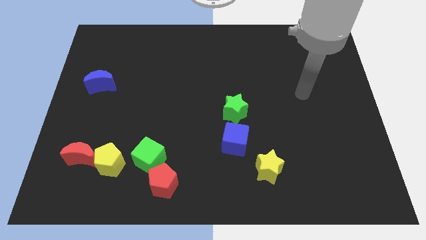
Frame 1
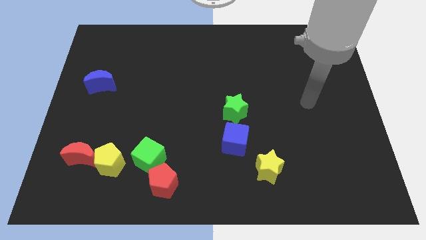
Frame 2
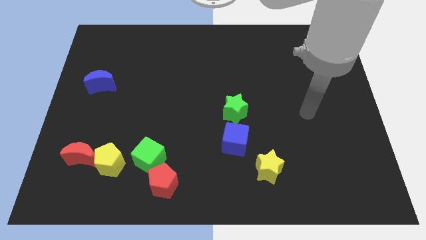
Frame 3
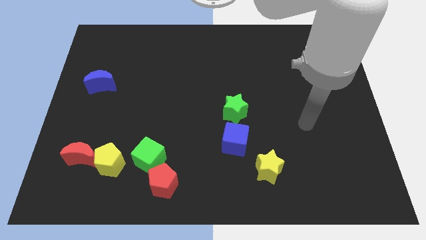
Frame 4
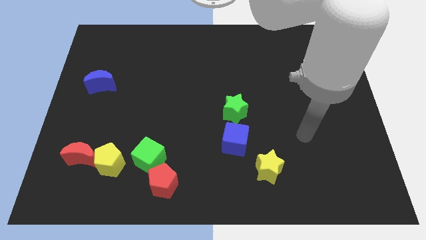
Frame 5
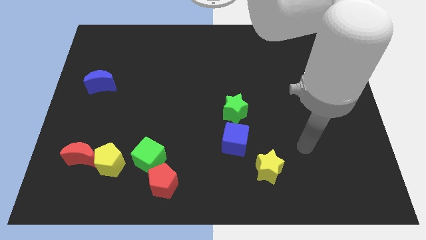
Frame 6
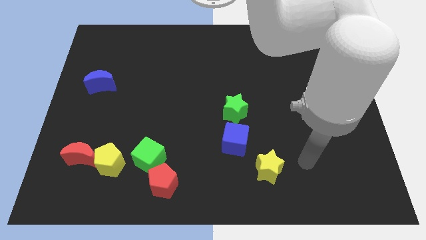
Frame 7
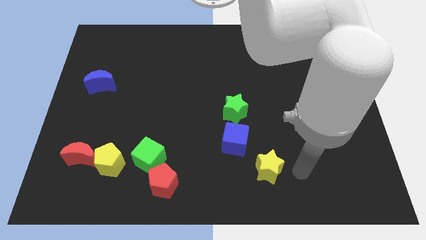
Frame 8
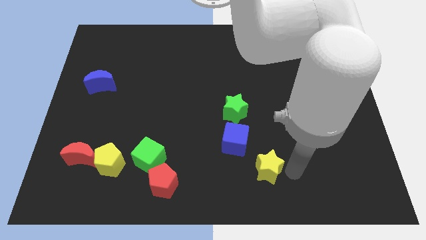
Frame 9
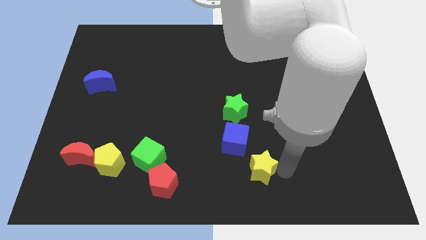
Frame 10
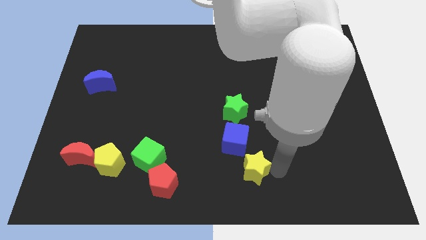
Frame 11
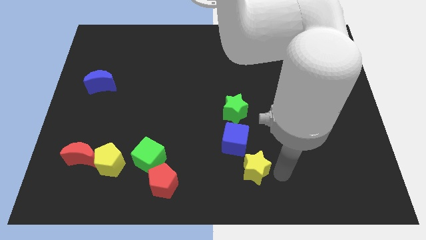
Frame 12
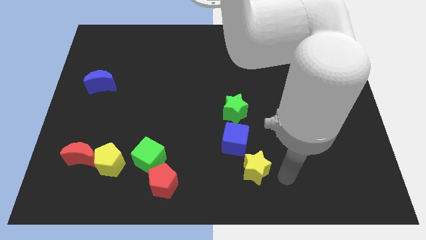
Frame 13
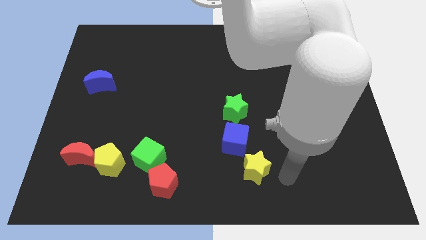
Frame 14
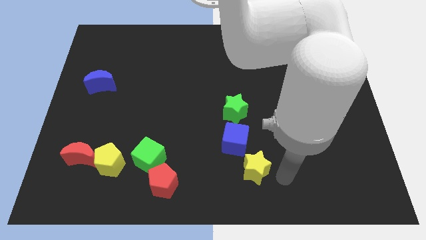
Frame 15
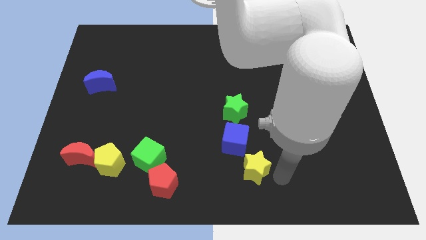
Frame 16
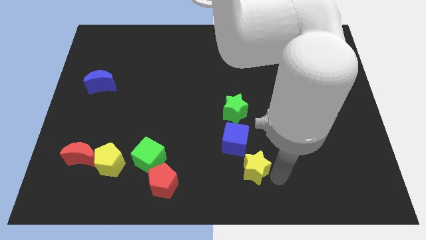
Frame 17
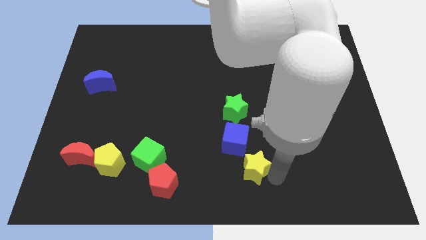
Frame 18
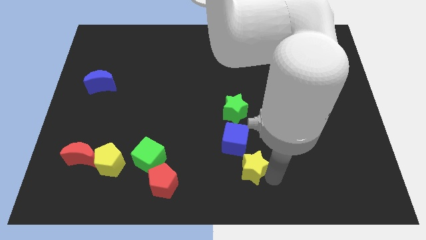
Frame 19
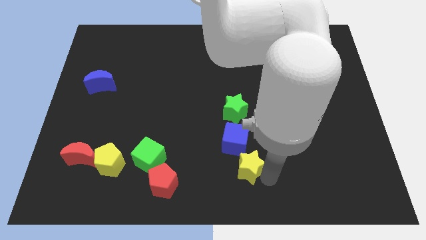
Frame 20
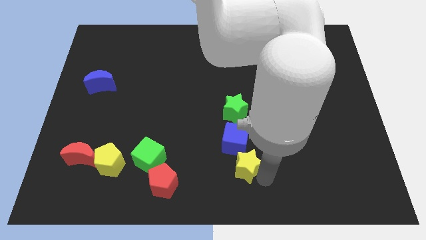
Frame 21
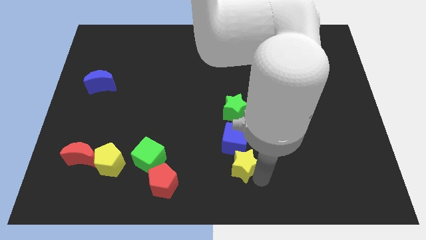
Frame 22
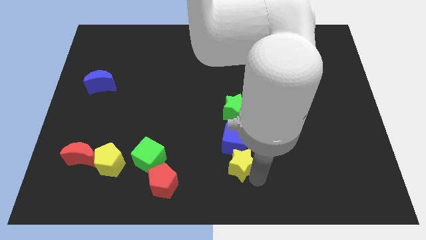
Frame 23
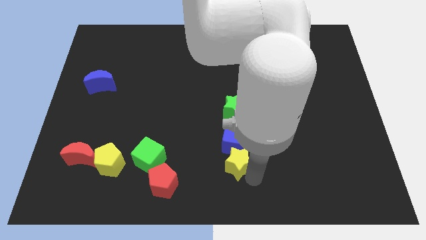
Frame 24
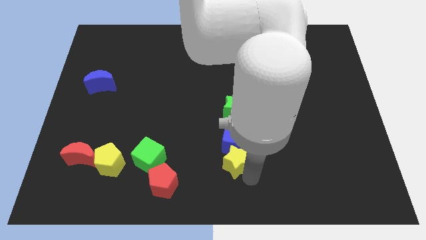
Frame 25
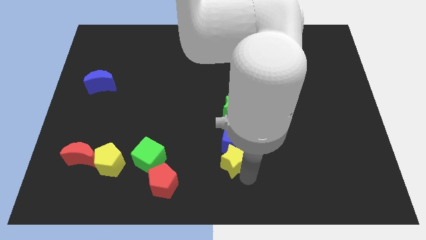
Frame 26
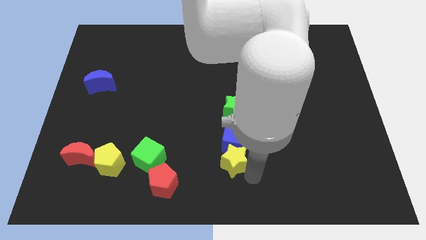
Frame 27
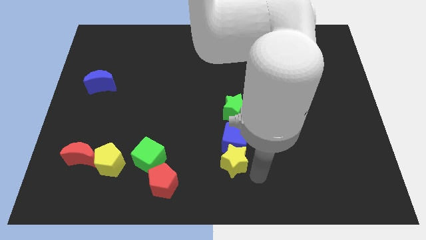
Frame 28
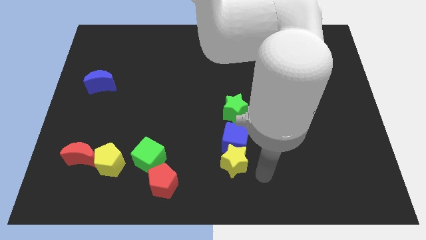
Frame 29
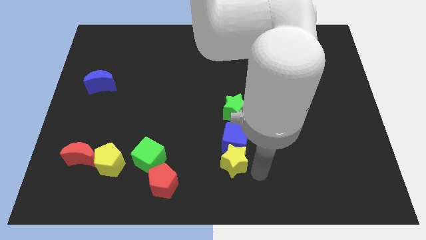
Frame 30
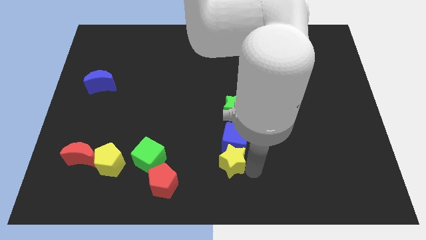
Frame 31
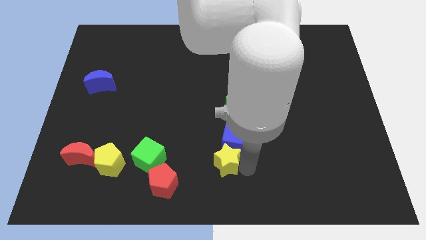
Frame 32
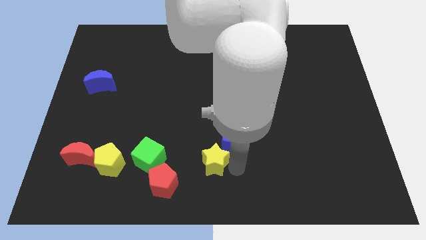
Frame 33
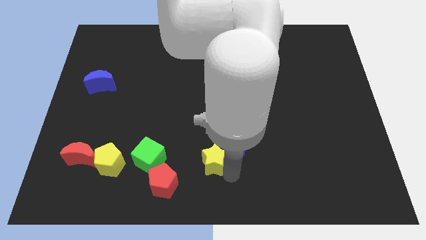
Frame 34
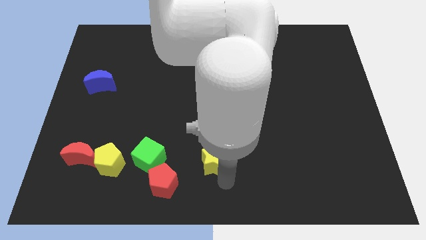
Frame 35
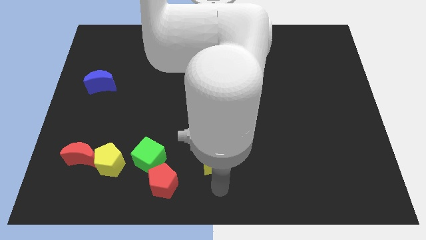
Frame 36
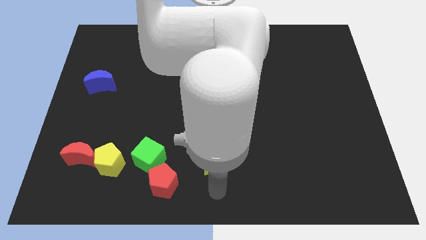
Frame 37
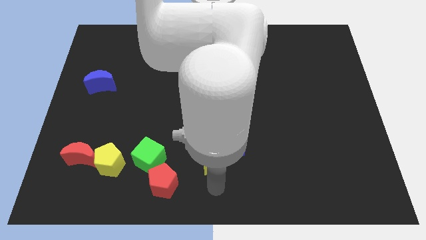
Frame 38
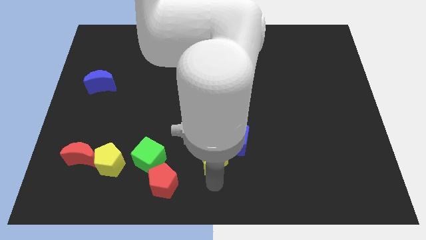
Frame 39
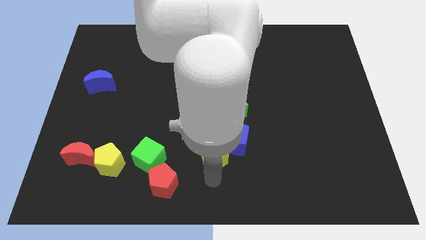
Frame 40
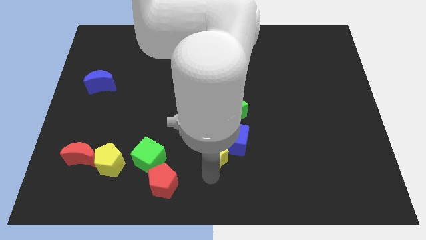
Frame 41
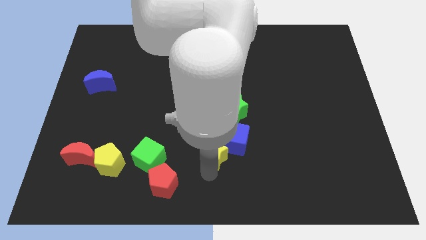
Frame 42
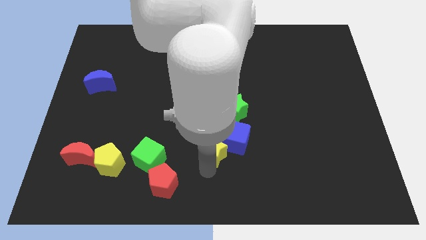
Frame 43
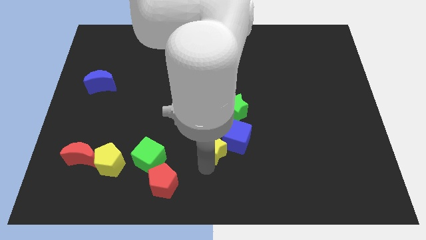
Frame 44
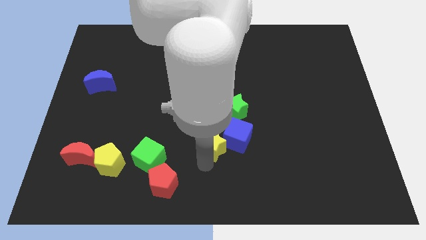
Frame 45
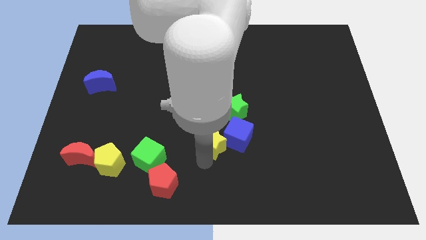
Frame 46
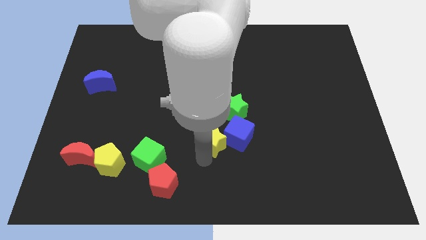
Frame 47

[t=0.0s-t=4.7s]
slide the yellow star to the middle

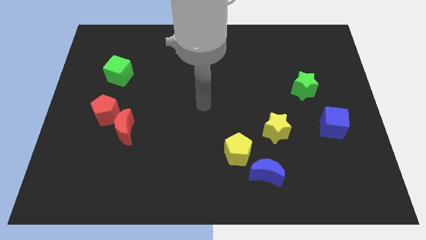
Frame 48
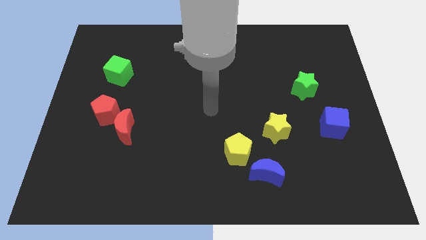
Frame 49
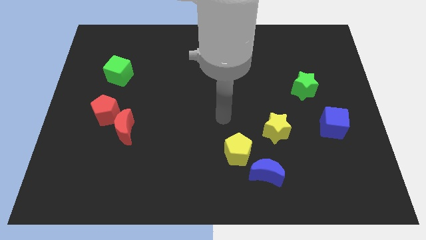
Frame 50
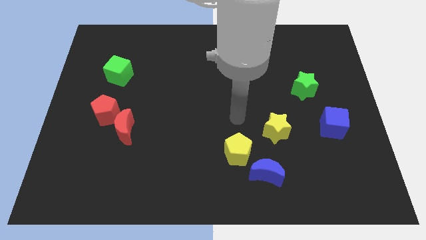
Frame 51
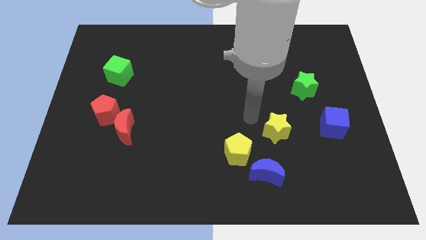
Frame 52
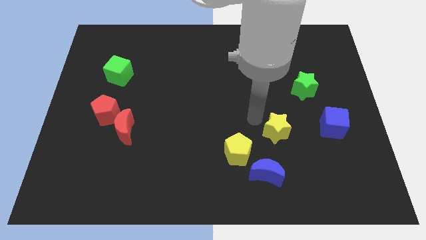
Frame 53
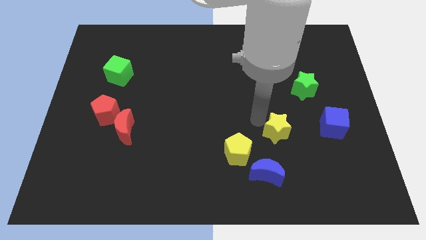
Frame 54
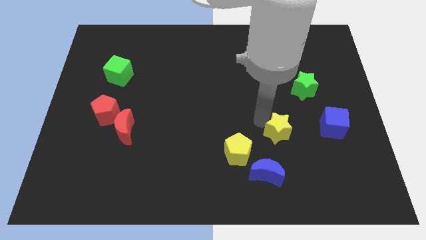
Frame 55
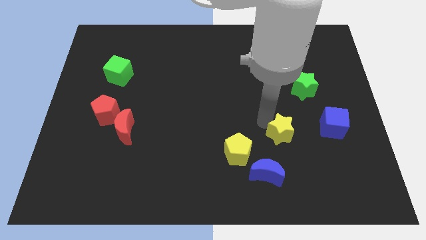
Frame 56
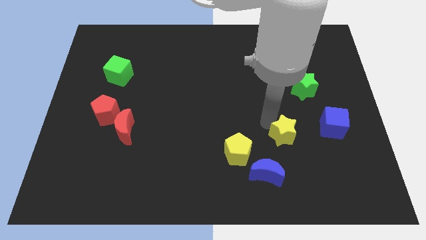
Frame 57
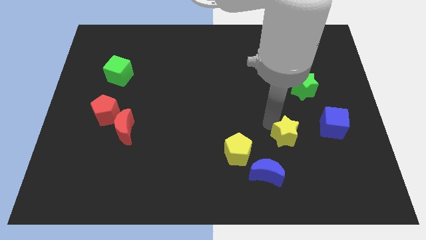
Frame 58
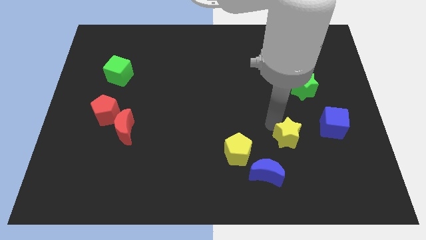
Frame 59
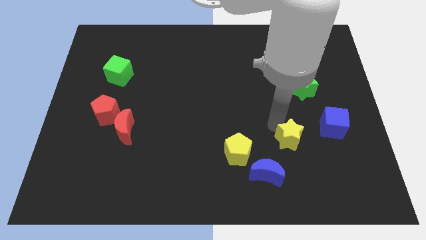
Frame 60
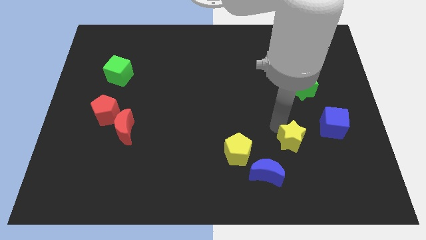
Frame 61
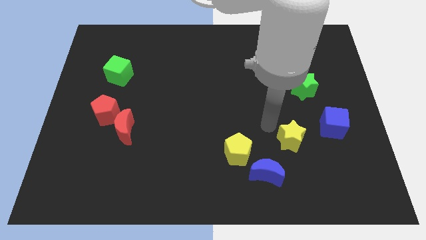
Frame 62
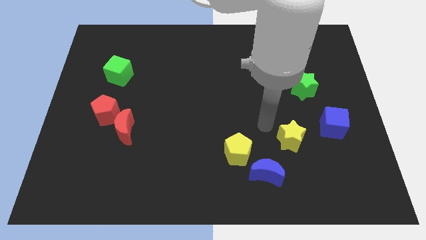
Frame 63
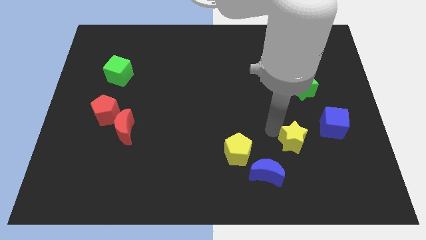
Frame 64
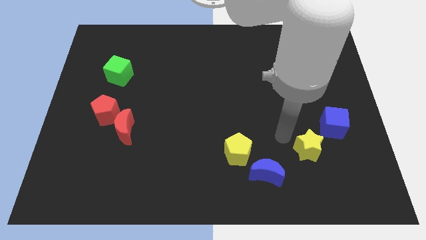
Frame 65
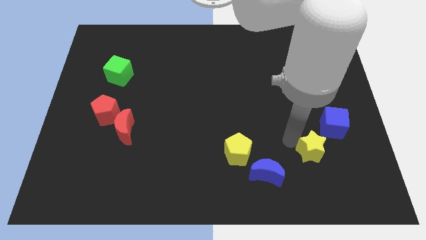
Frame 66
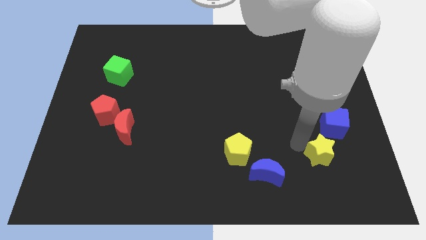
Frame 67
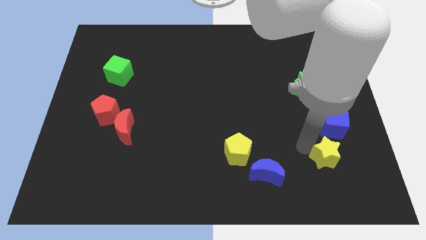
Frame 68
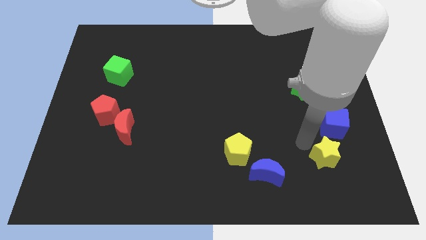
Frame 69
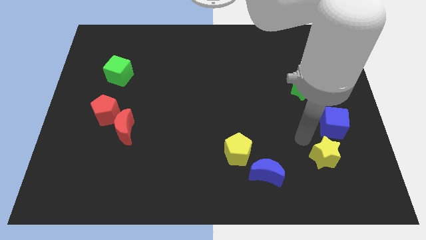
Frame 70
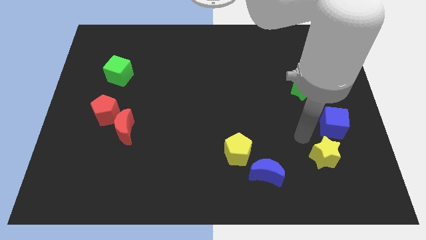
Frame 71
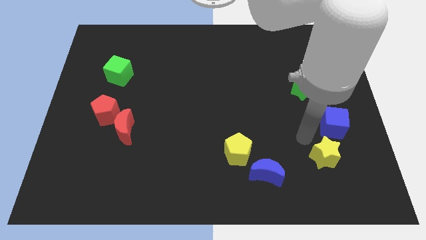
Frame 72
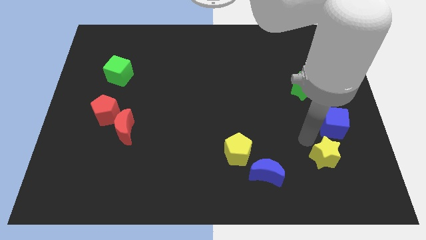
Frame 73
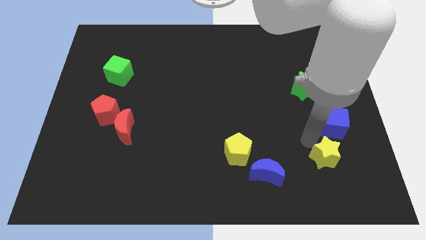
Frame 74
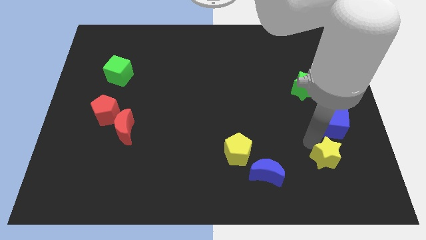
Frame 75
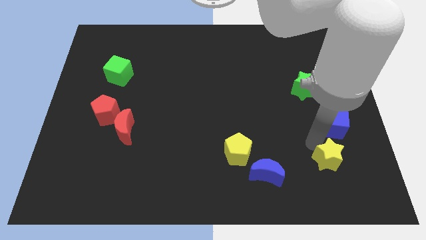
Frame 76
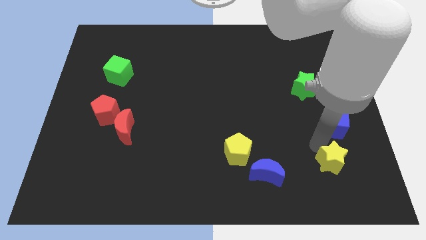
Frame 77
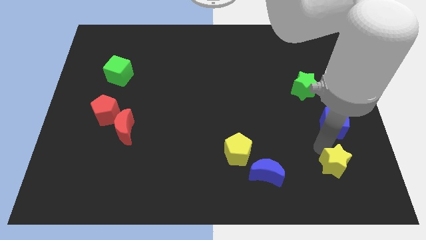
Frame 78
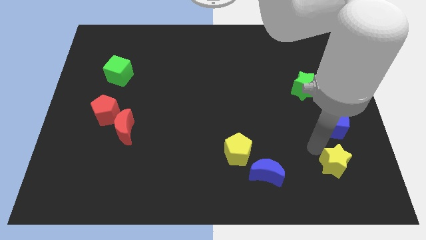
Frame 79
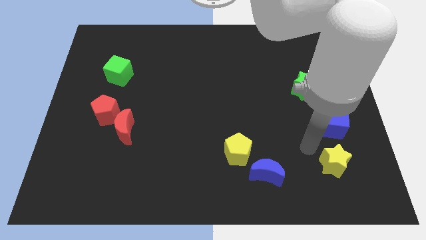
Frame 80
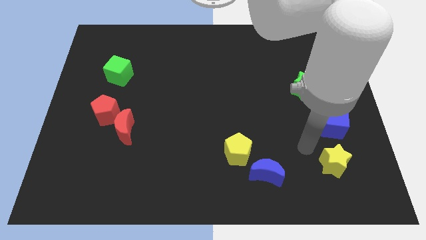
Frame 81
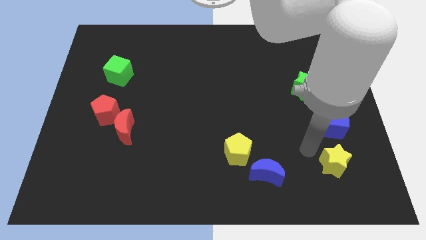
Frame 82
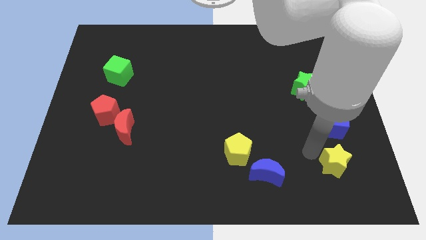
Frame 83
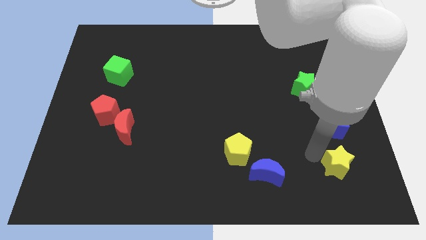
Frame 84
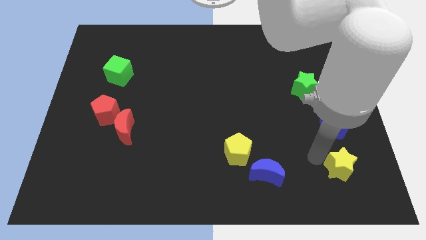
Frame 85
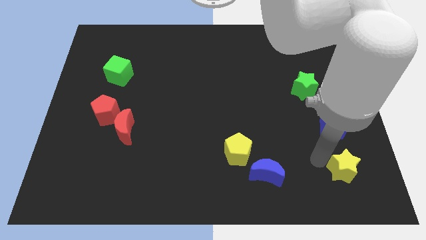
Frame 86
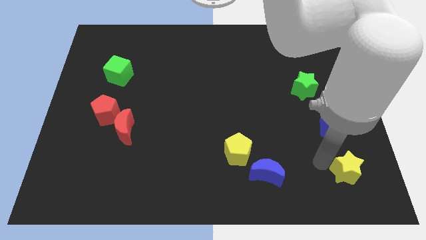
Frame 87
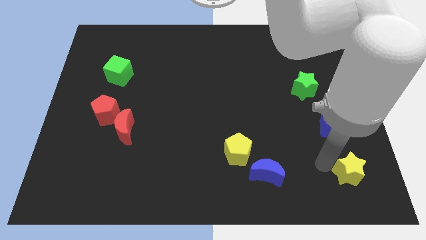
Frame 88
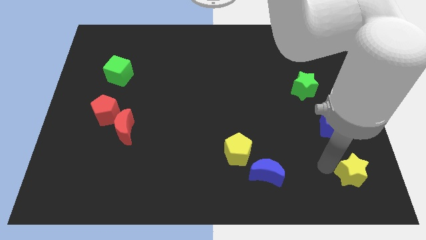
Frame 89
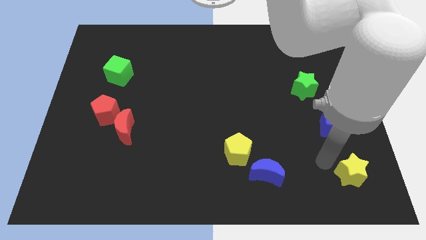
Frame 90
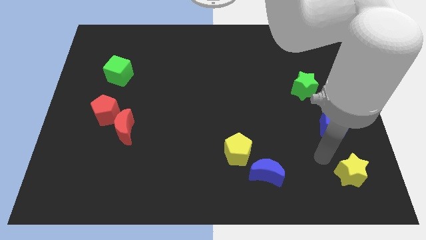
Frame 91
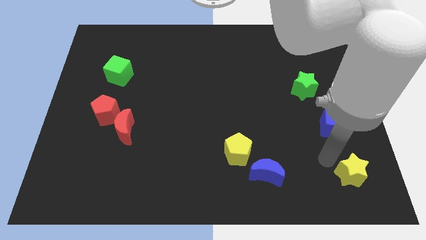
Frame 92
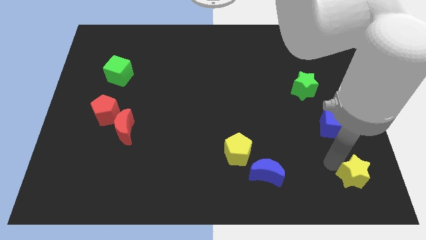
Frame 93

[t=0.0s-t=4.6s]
push the yellow star to the bottom right
